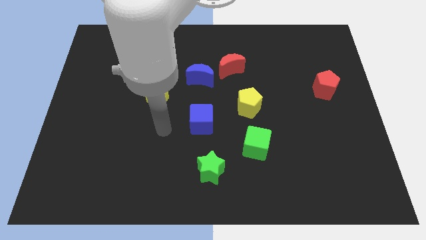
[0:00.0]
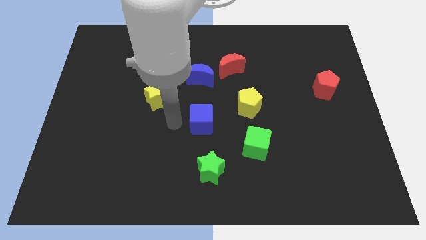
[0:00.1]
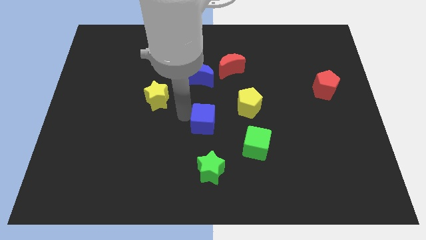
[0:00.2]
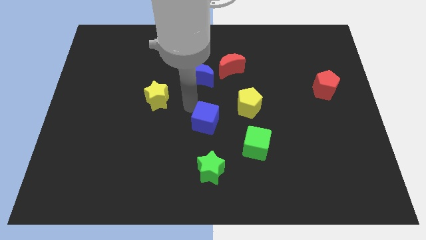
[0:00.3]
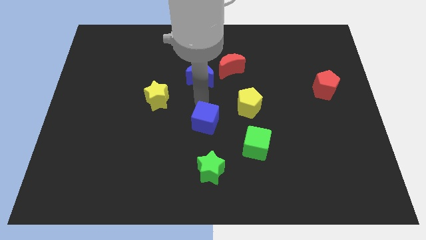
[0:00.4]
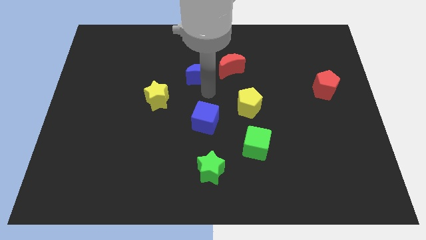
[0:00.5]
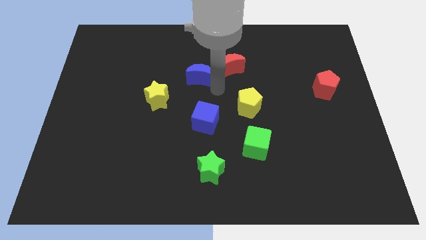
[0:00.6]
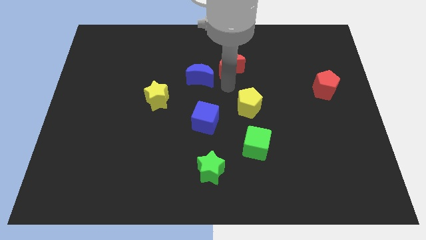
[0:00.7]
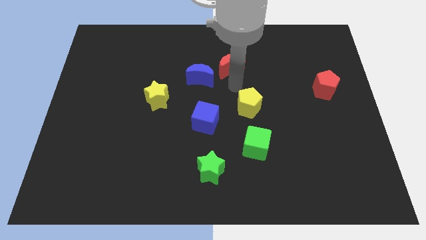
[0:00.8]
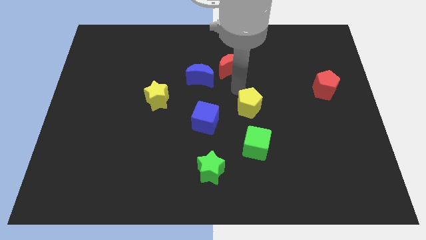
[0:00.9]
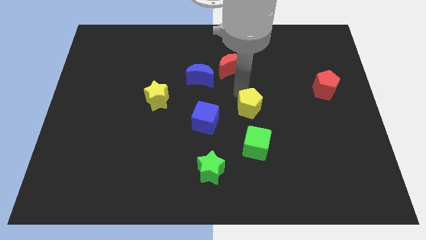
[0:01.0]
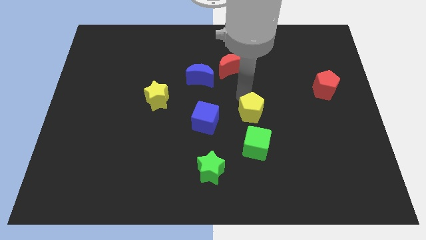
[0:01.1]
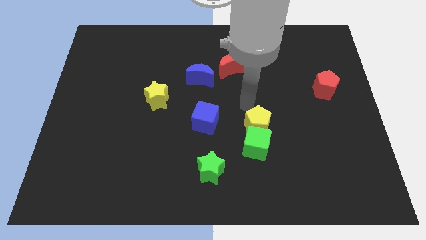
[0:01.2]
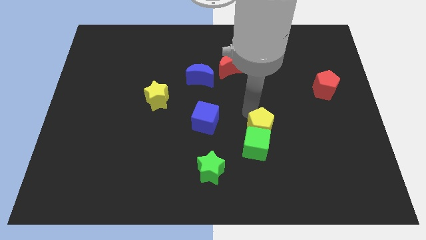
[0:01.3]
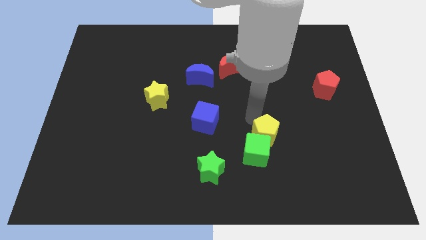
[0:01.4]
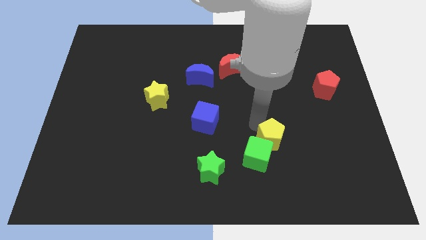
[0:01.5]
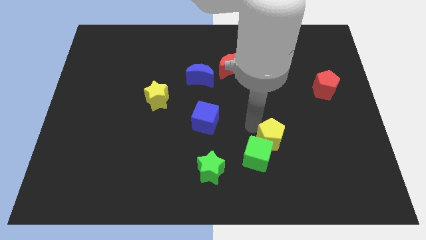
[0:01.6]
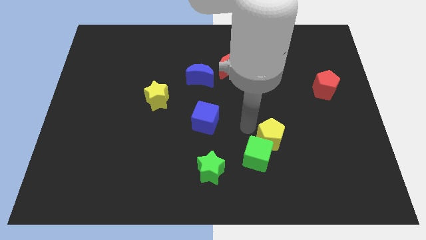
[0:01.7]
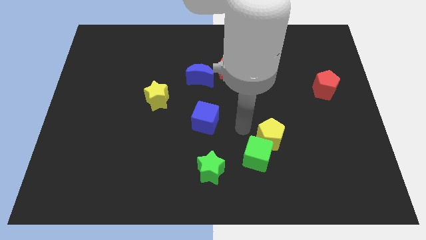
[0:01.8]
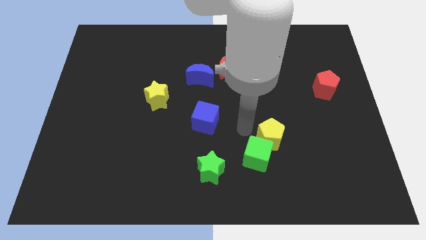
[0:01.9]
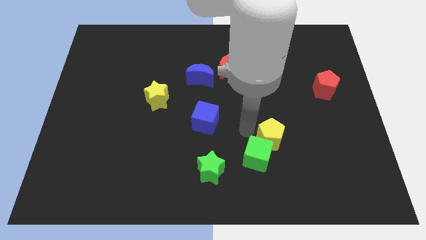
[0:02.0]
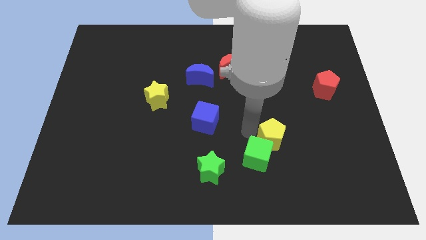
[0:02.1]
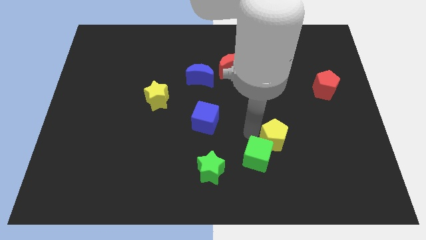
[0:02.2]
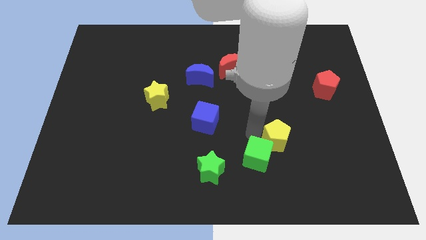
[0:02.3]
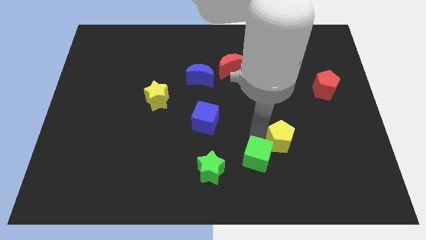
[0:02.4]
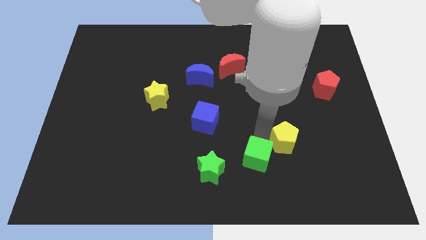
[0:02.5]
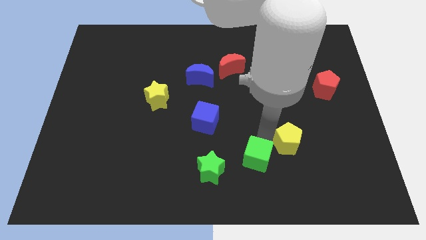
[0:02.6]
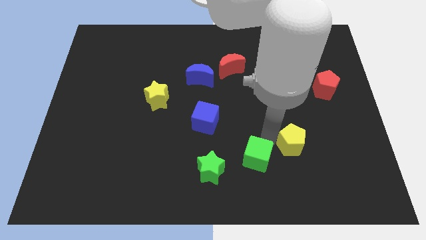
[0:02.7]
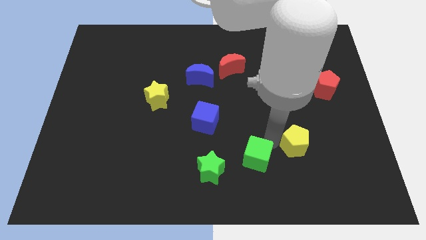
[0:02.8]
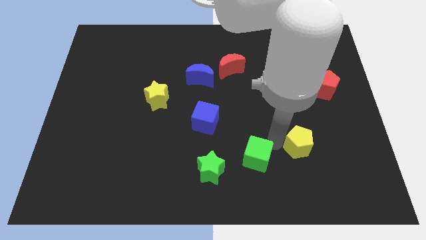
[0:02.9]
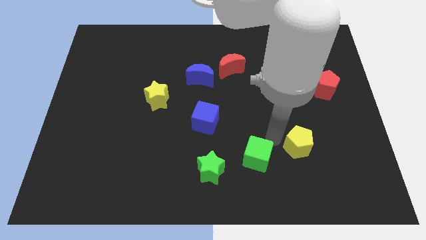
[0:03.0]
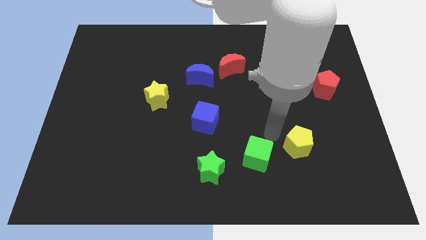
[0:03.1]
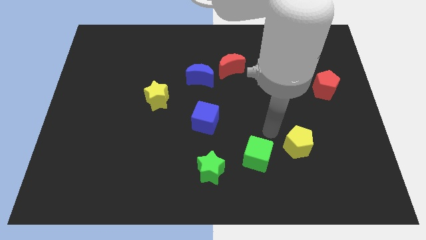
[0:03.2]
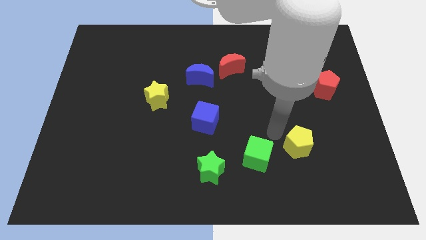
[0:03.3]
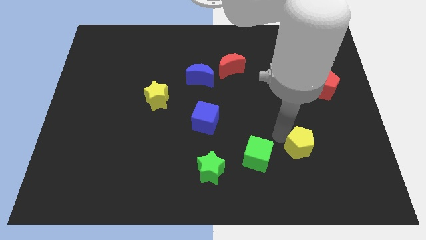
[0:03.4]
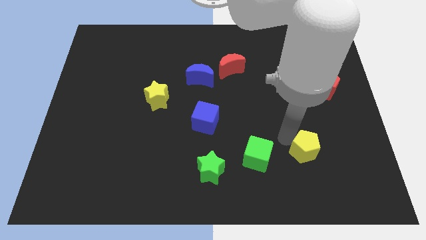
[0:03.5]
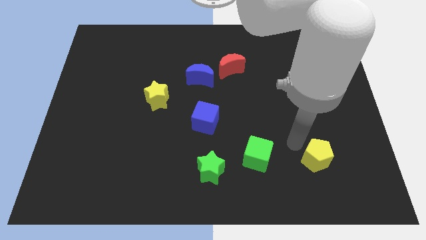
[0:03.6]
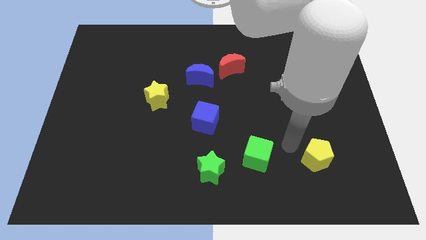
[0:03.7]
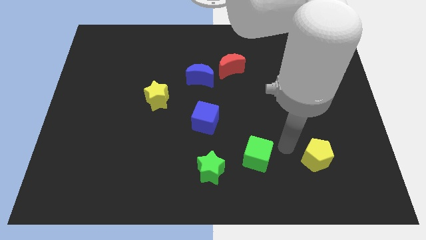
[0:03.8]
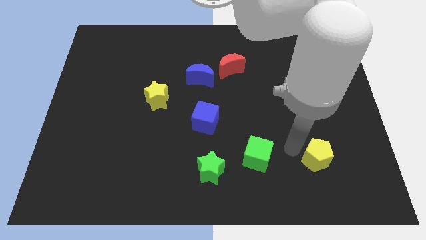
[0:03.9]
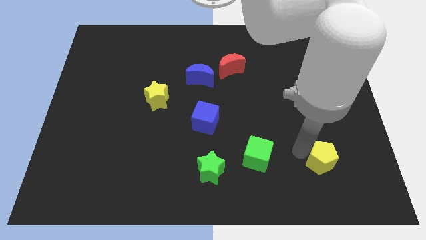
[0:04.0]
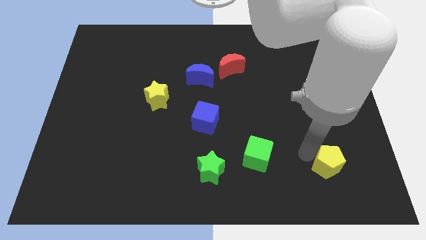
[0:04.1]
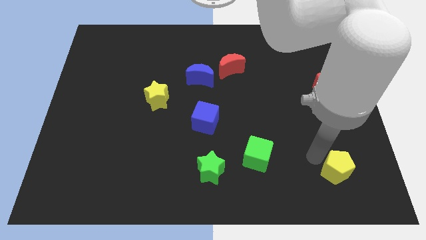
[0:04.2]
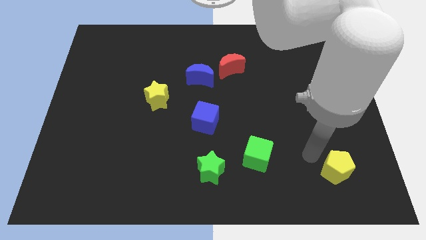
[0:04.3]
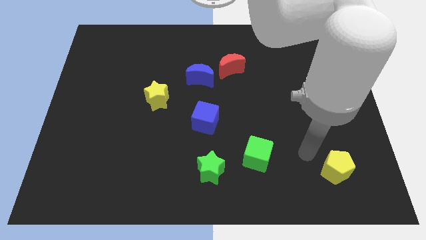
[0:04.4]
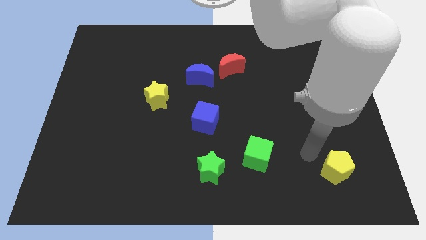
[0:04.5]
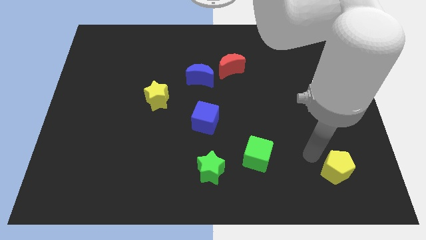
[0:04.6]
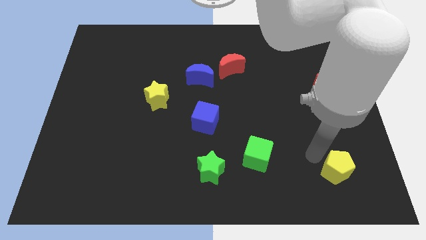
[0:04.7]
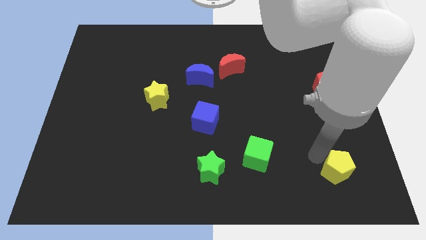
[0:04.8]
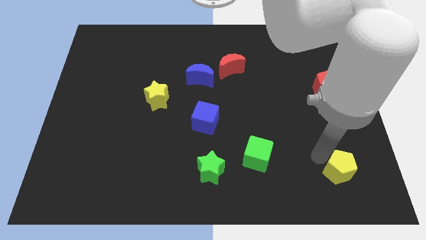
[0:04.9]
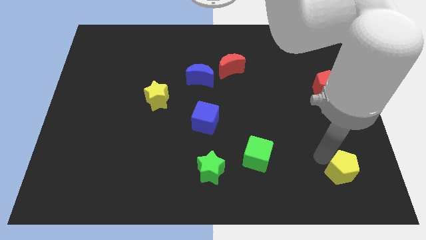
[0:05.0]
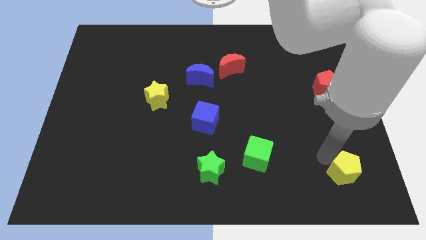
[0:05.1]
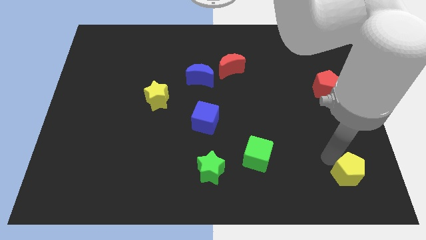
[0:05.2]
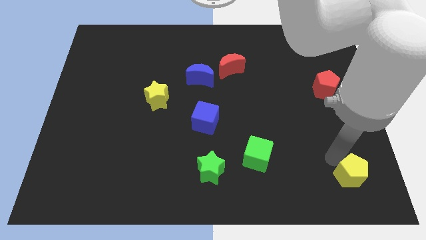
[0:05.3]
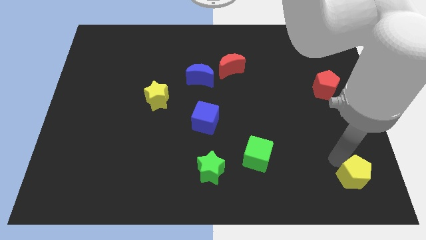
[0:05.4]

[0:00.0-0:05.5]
push the yellow pentagon to the bottom right corner

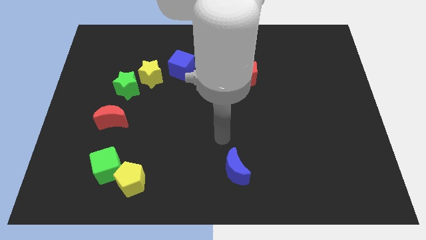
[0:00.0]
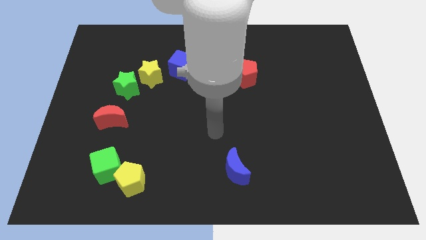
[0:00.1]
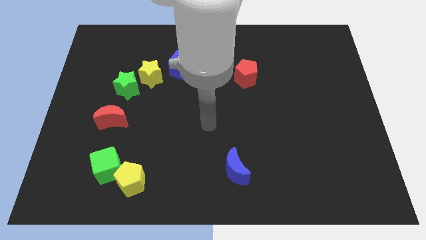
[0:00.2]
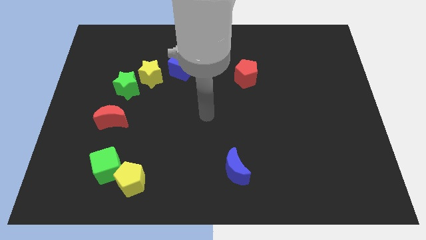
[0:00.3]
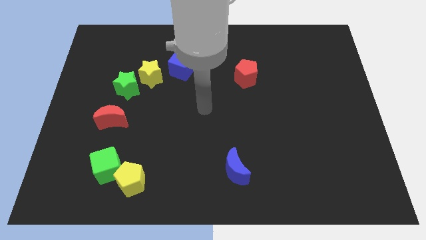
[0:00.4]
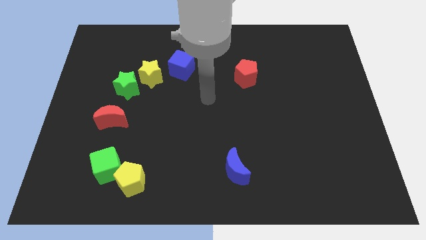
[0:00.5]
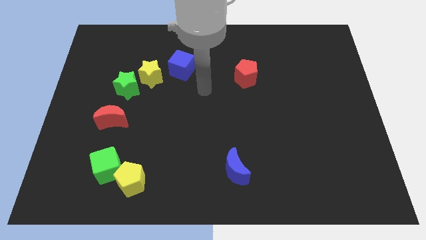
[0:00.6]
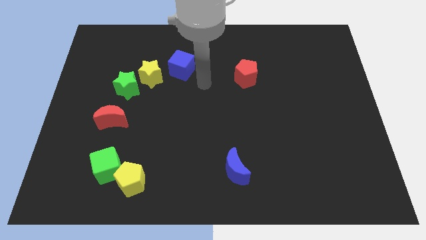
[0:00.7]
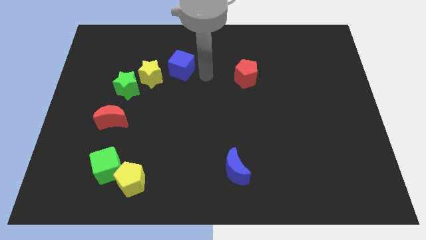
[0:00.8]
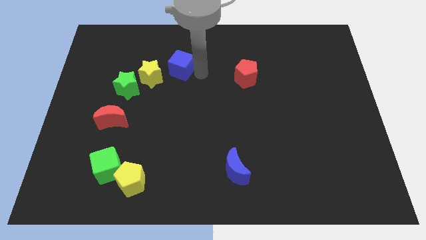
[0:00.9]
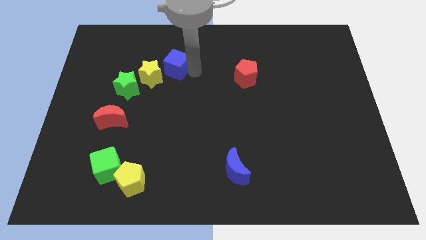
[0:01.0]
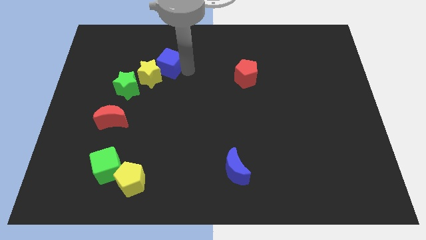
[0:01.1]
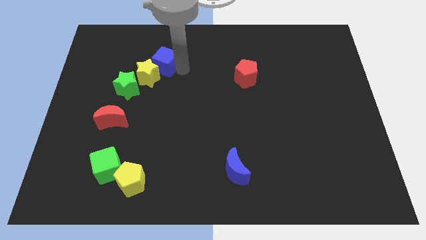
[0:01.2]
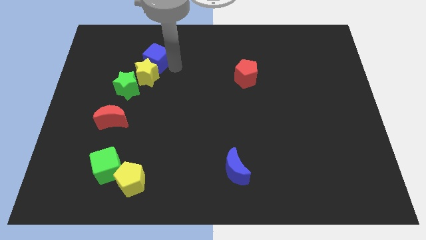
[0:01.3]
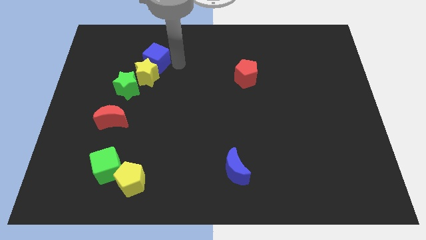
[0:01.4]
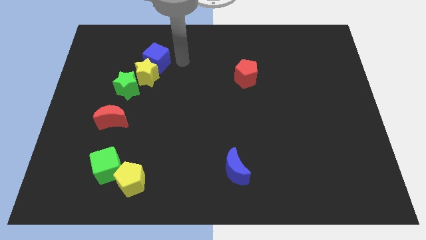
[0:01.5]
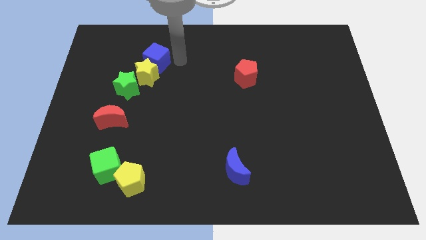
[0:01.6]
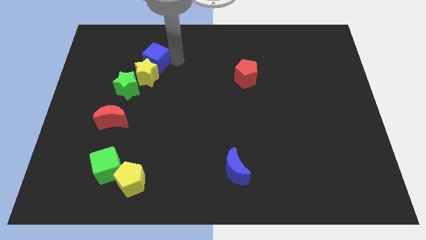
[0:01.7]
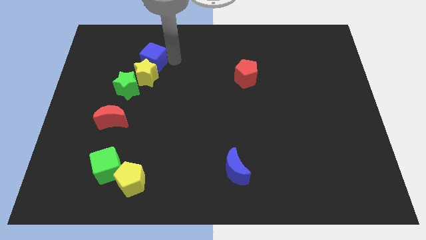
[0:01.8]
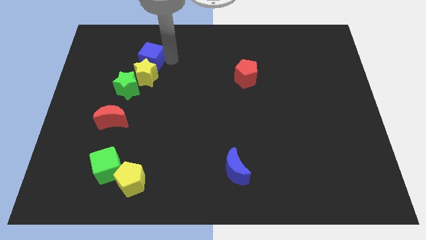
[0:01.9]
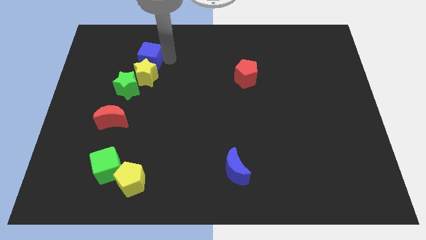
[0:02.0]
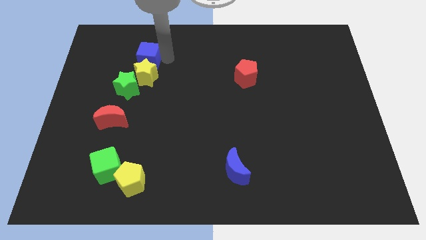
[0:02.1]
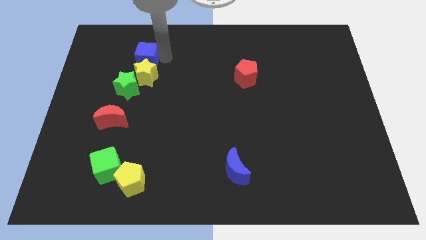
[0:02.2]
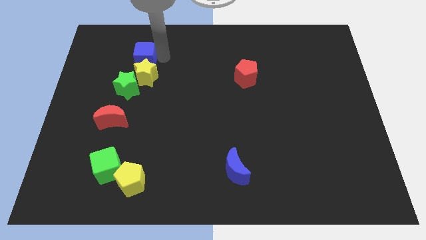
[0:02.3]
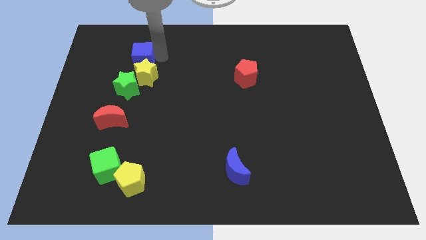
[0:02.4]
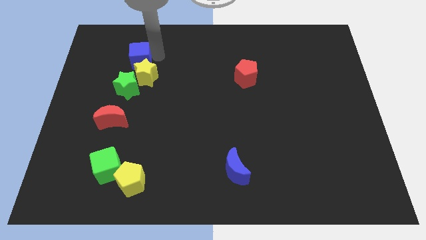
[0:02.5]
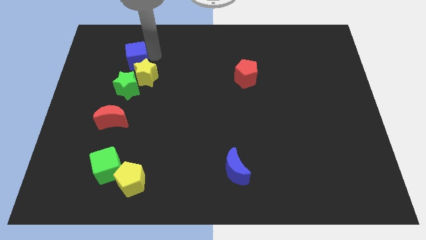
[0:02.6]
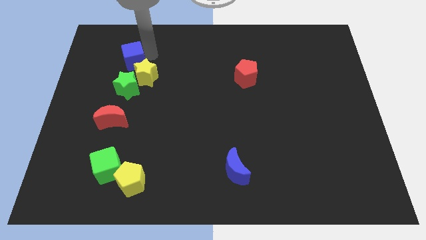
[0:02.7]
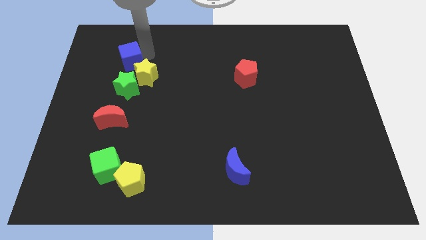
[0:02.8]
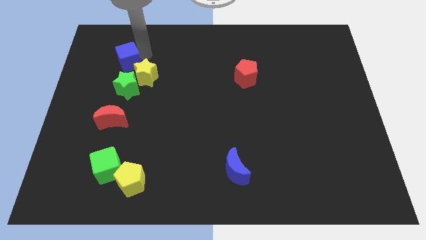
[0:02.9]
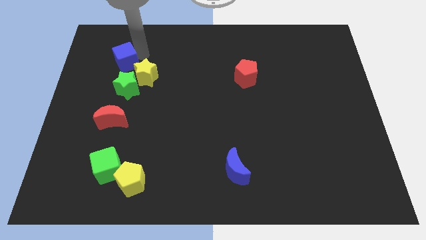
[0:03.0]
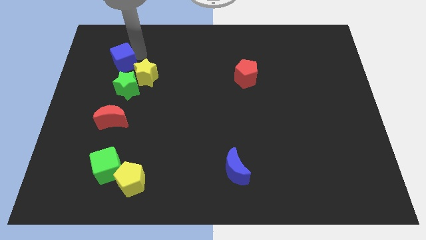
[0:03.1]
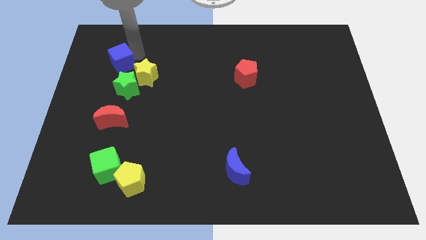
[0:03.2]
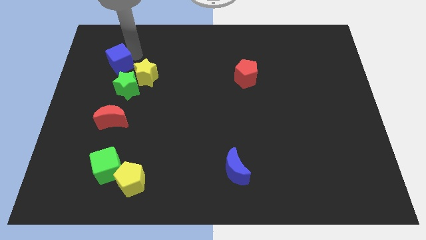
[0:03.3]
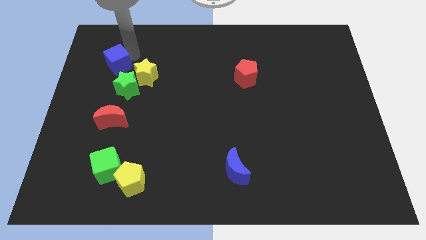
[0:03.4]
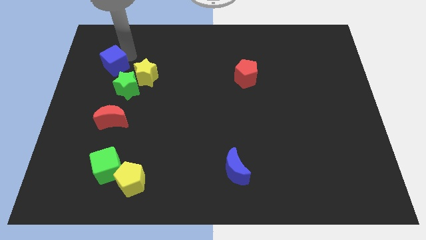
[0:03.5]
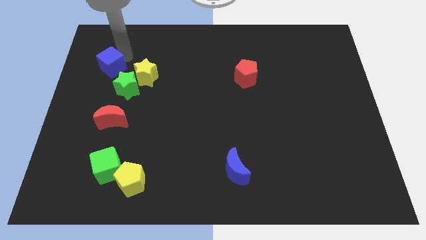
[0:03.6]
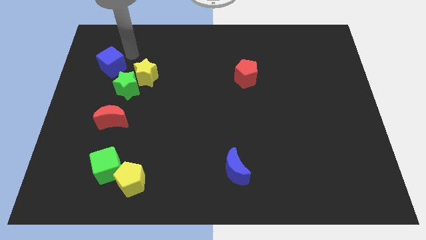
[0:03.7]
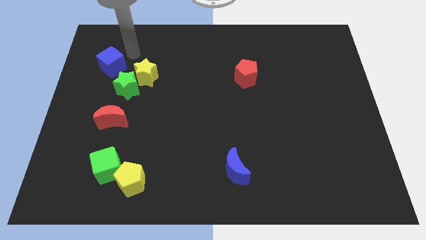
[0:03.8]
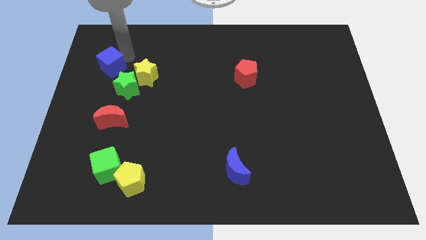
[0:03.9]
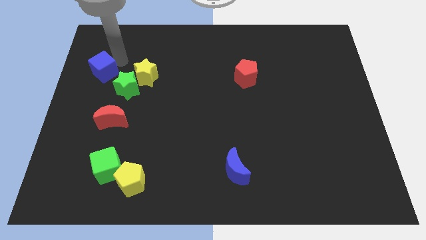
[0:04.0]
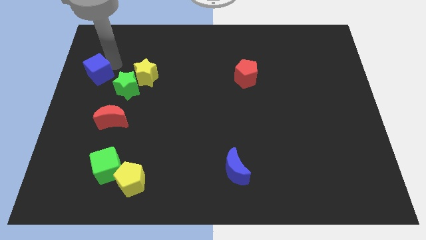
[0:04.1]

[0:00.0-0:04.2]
push the blue cube to the left side of the board
